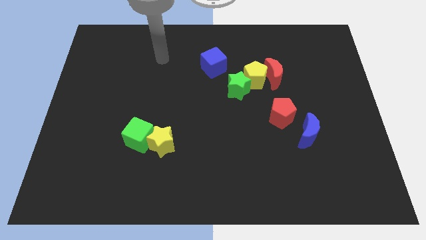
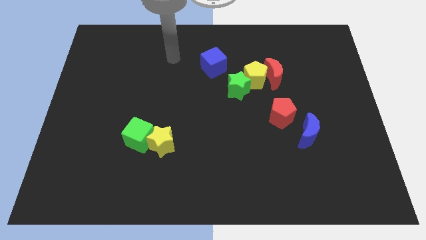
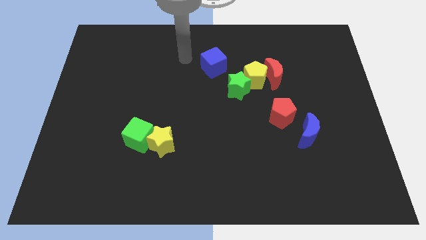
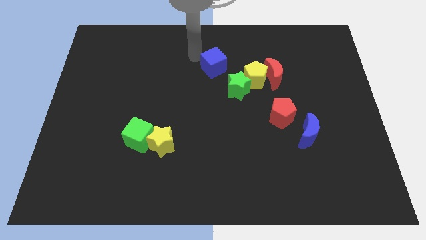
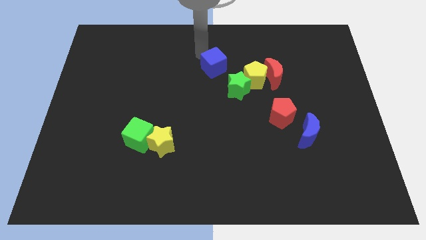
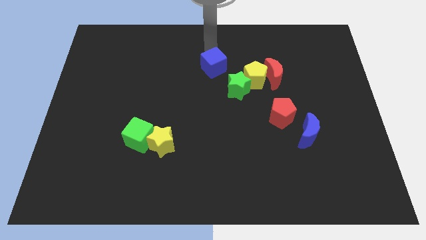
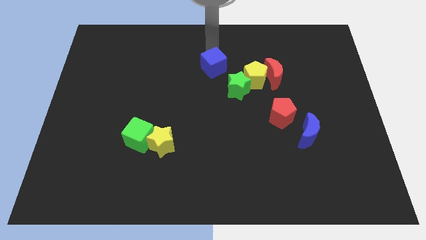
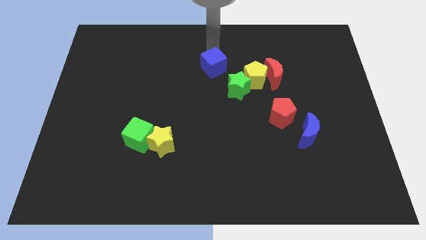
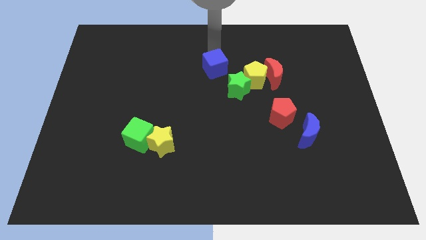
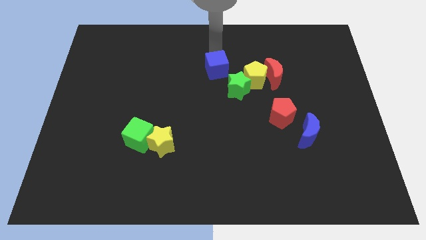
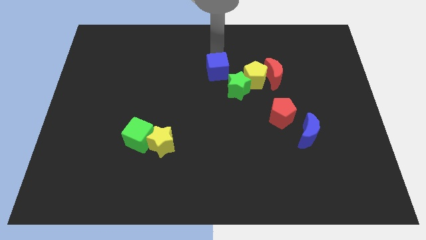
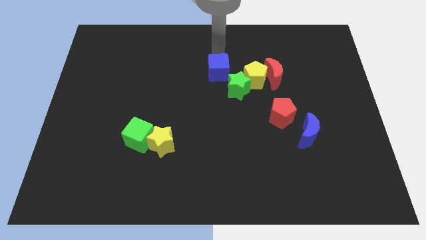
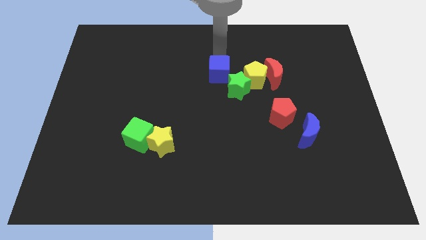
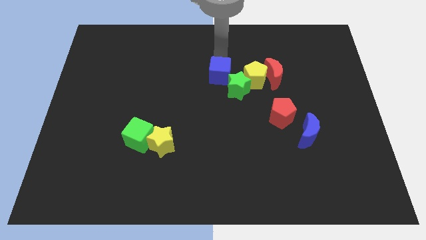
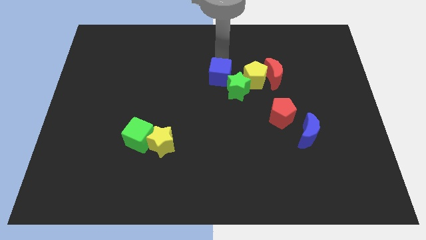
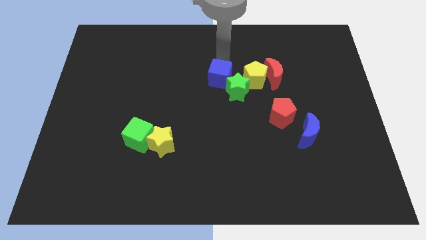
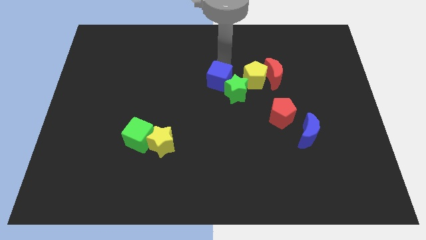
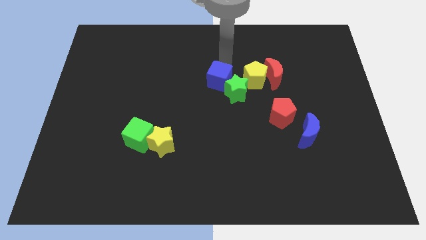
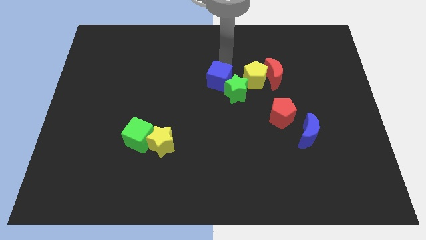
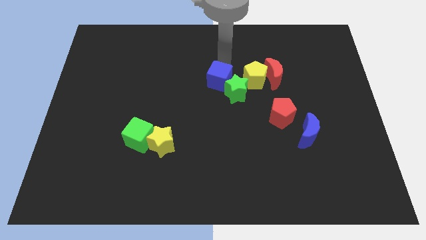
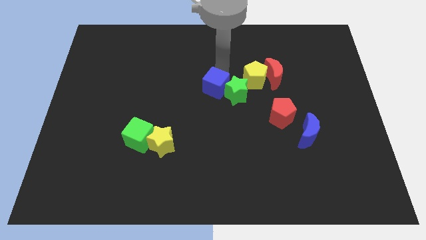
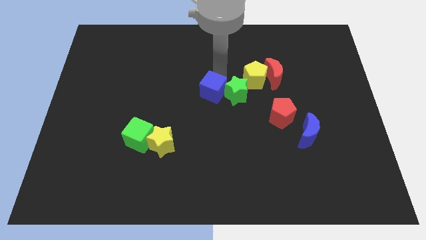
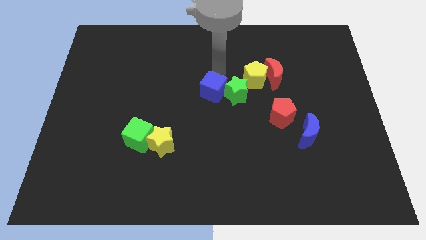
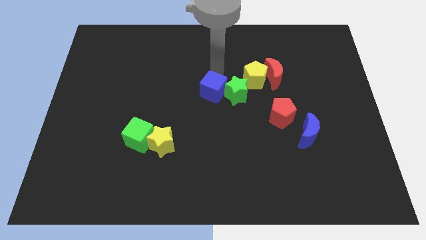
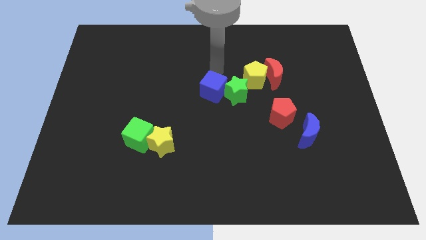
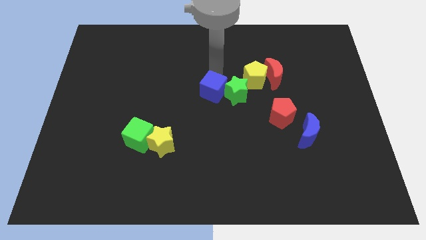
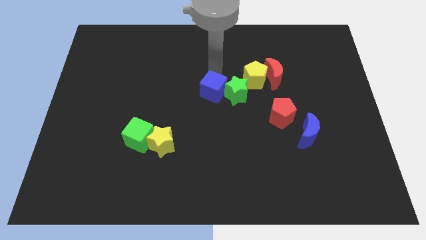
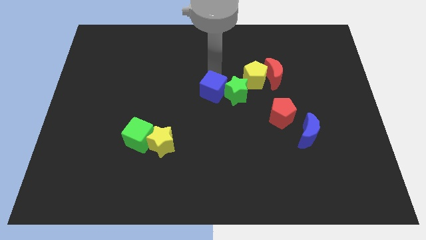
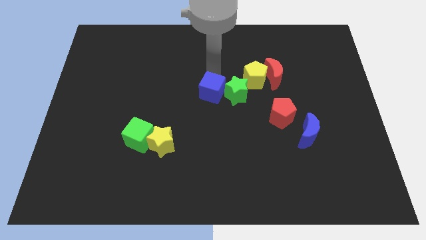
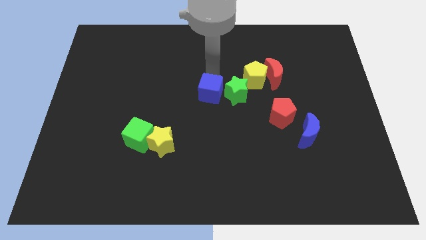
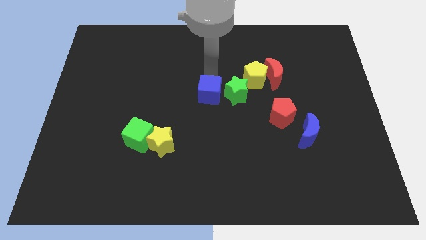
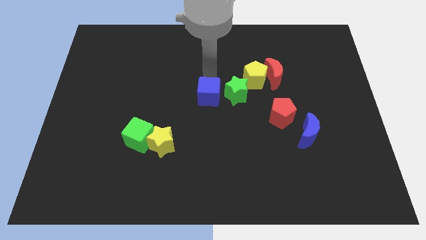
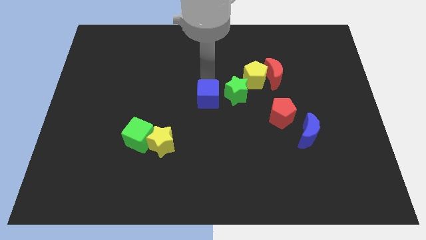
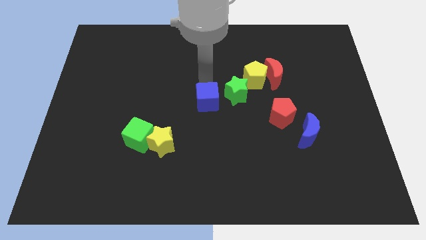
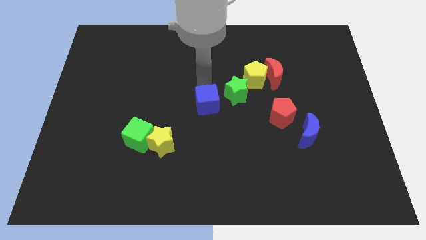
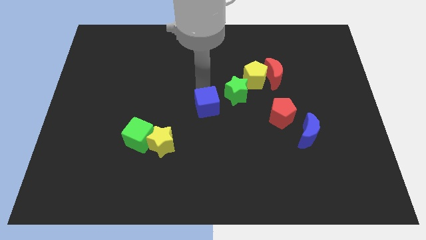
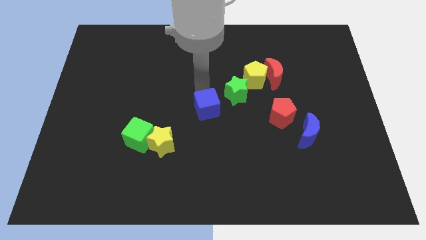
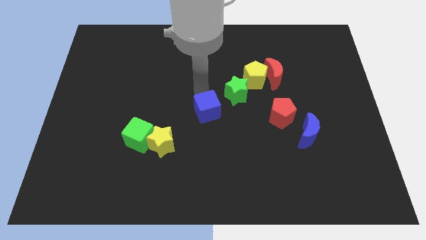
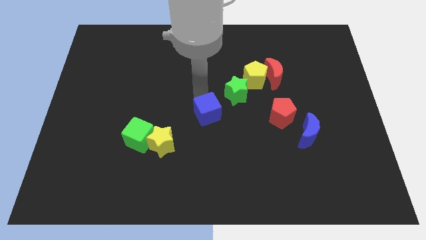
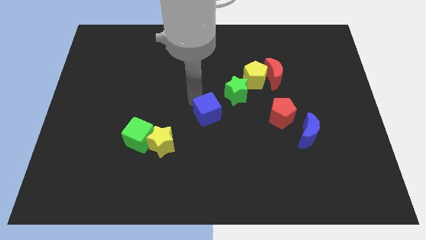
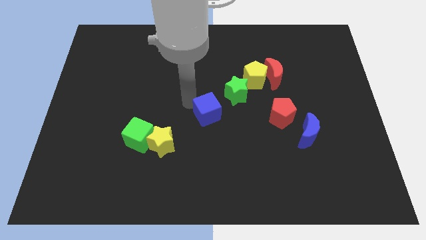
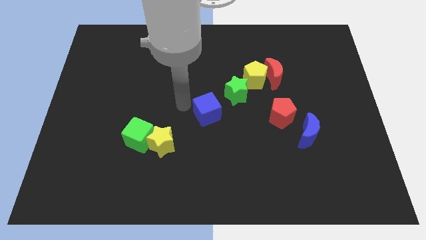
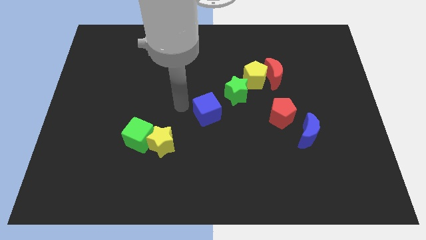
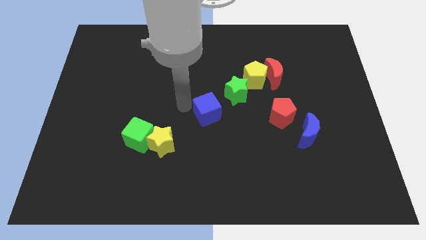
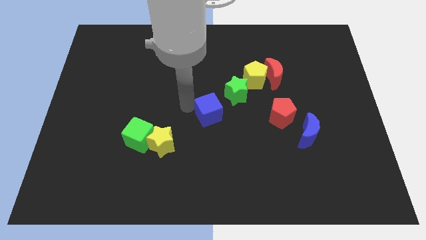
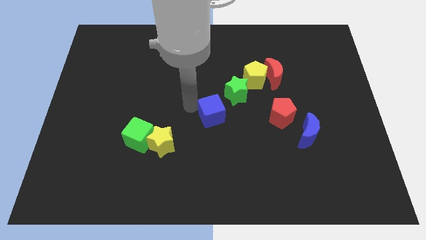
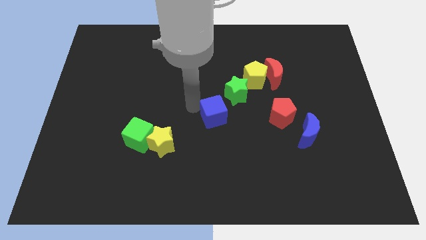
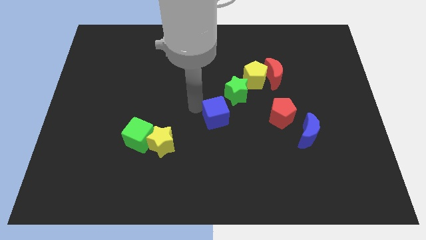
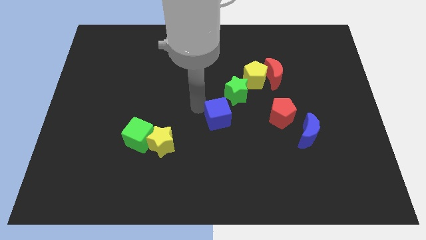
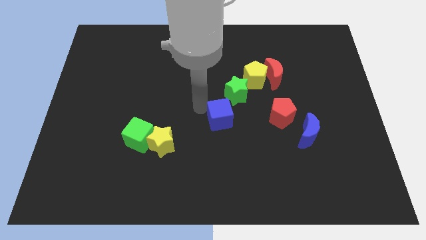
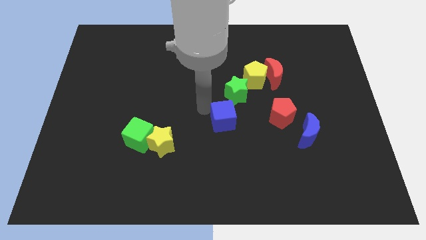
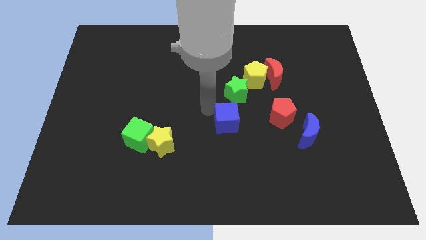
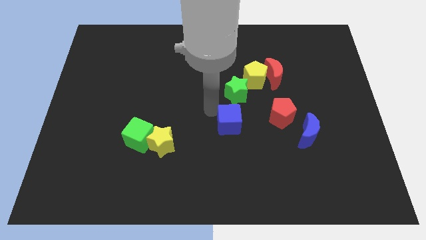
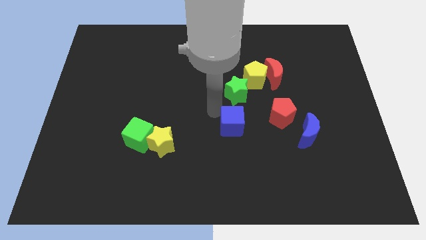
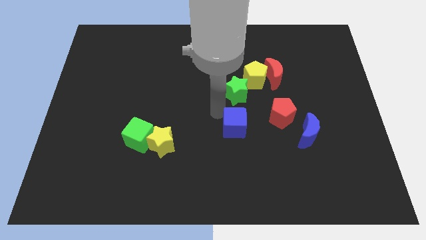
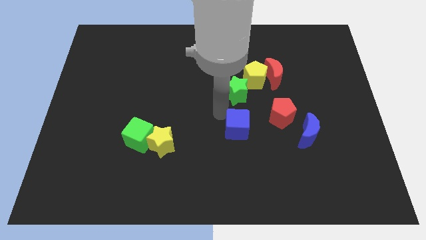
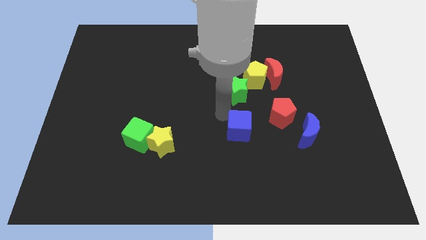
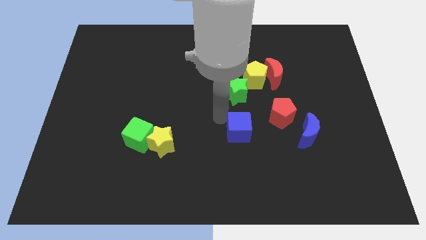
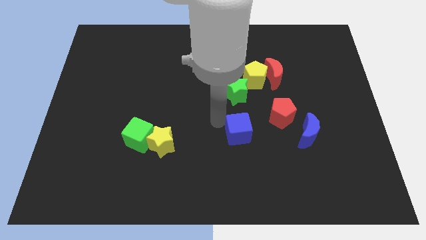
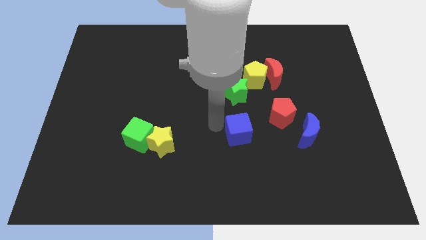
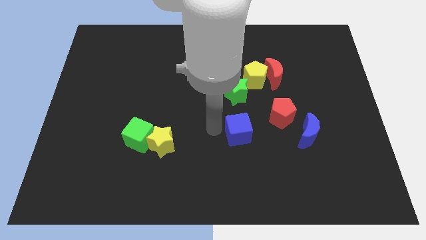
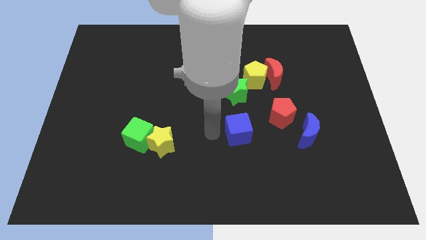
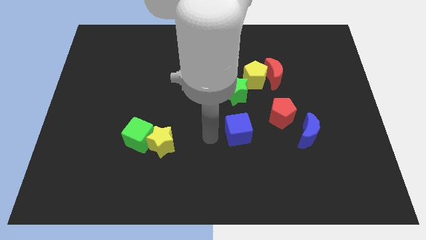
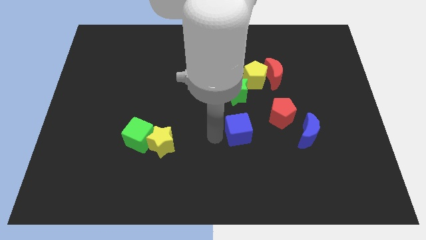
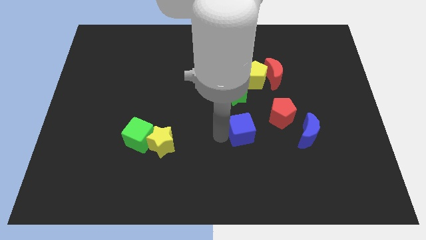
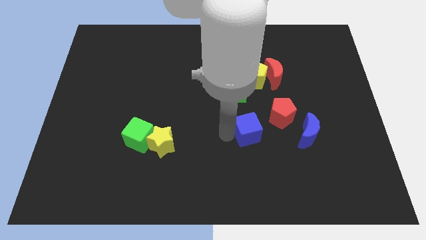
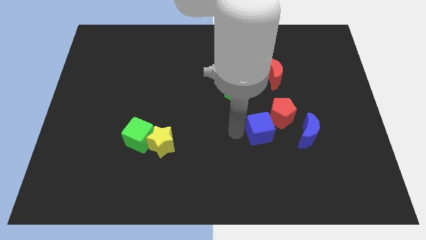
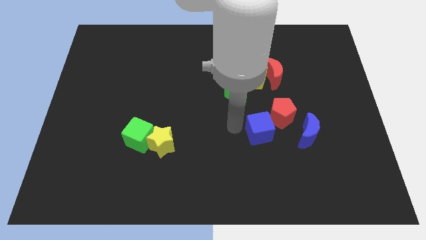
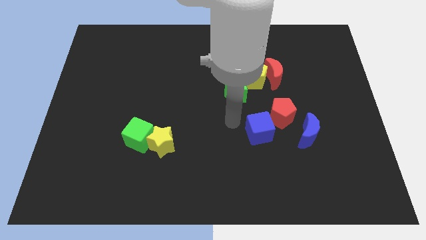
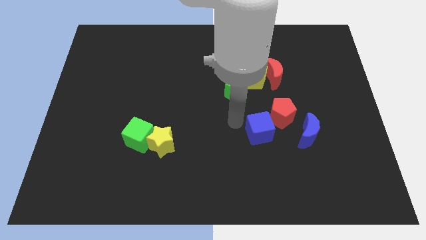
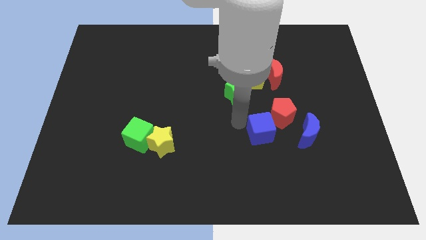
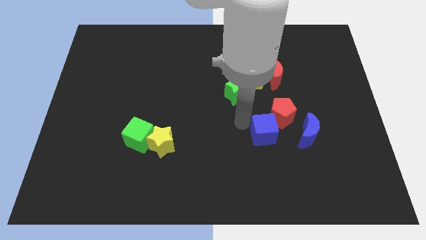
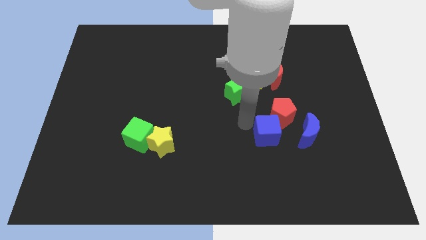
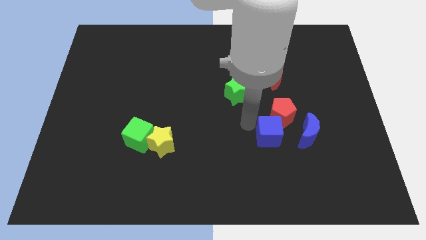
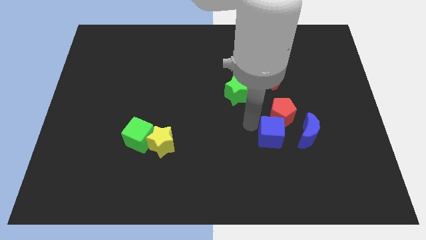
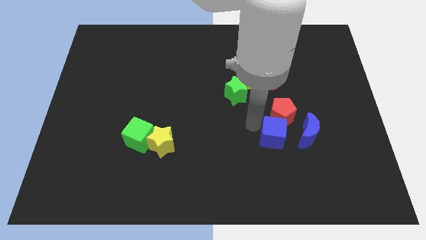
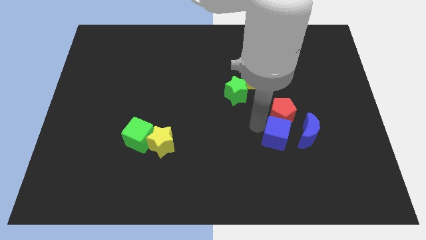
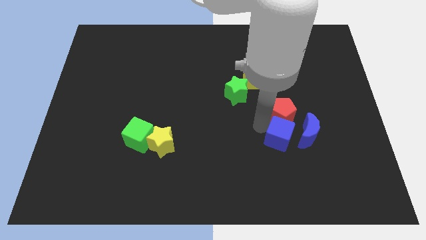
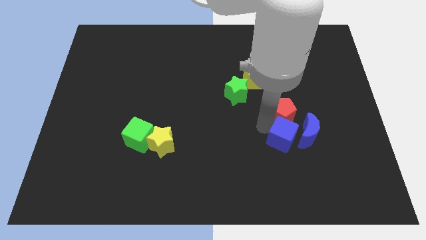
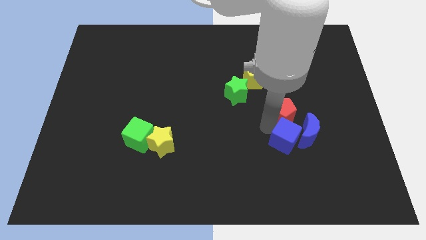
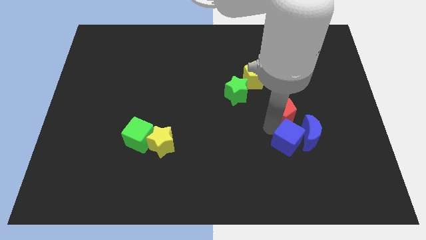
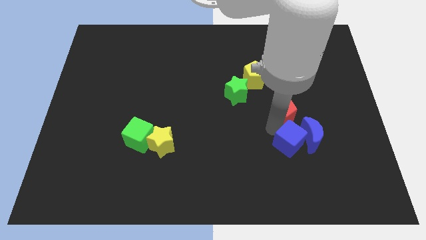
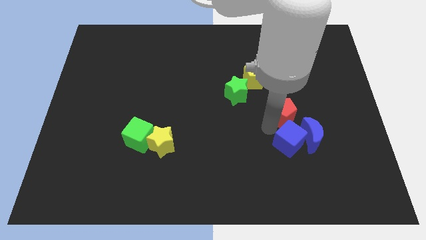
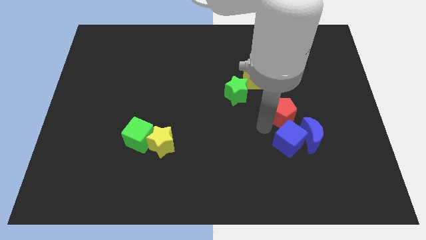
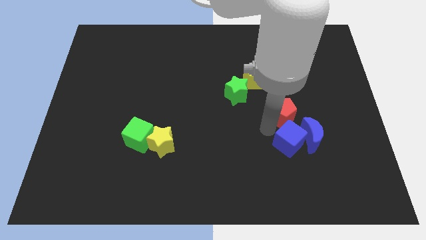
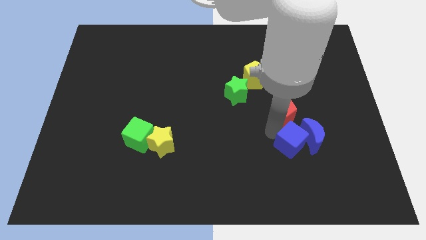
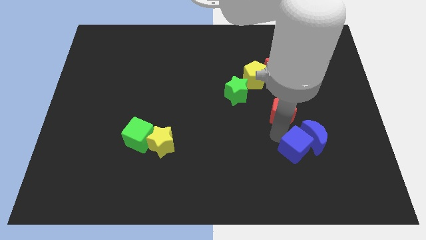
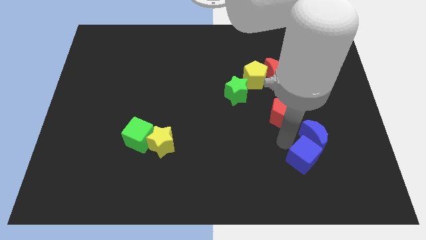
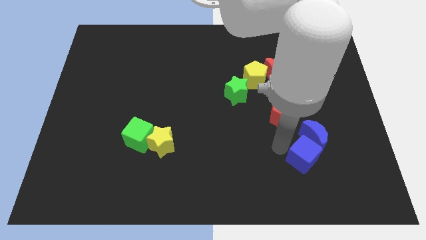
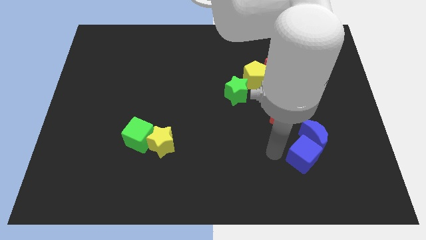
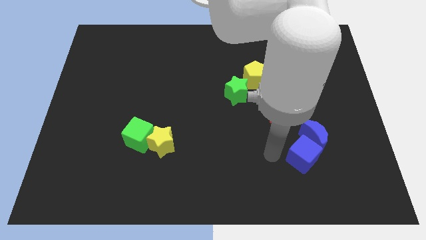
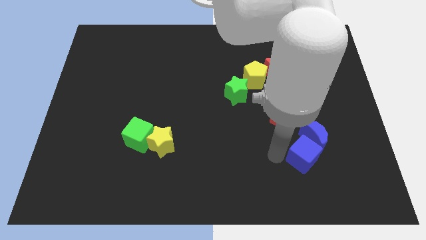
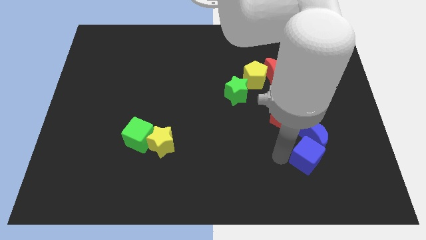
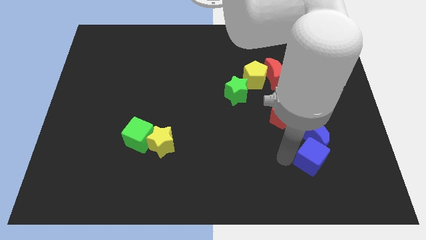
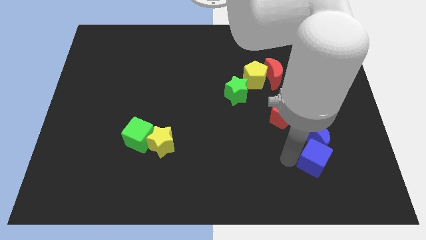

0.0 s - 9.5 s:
push the blue cube to the bottom right of the blue moon
